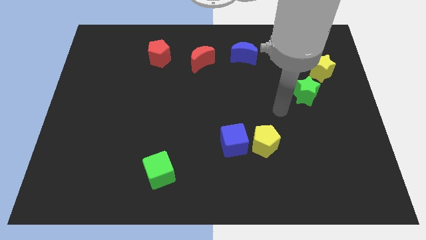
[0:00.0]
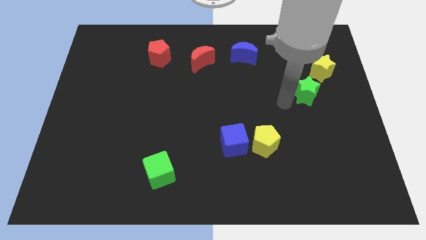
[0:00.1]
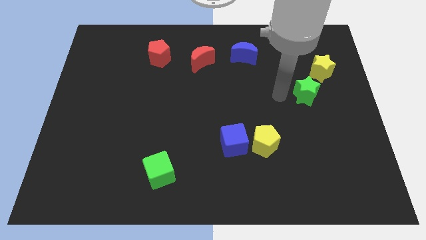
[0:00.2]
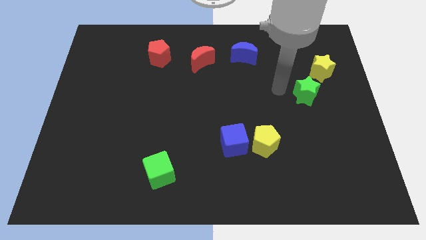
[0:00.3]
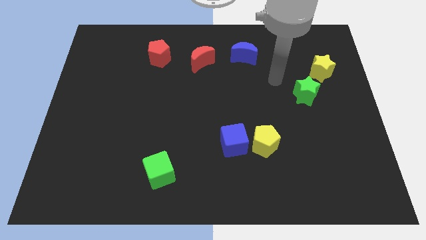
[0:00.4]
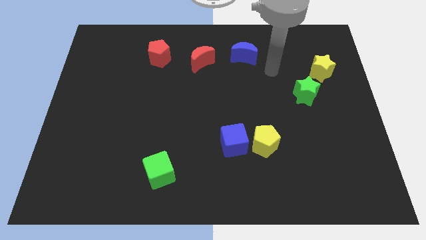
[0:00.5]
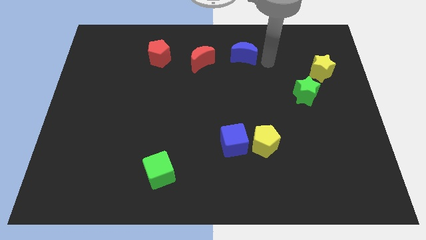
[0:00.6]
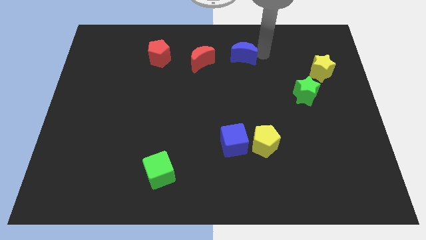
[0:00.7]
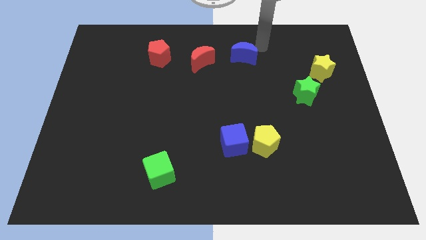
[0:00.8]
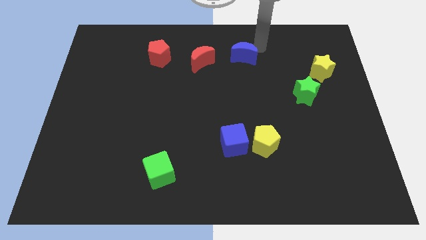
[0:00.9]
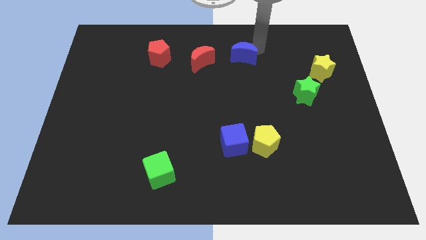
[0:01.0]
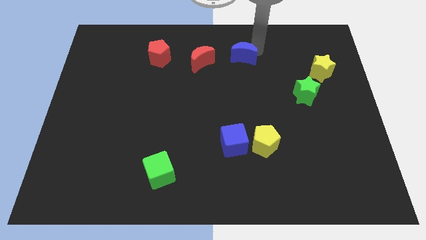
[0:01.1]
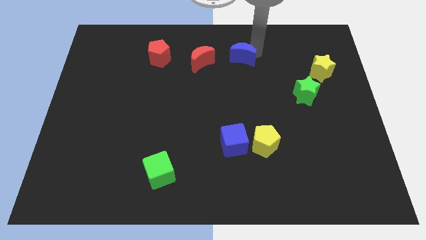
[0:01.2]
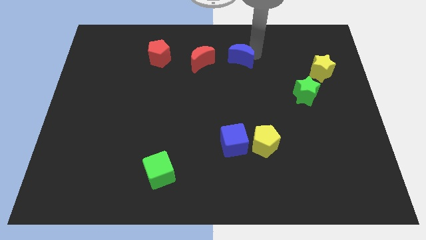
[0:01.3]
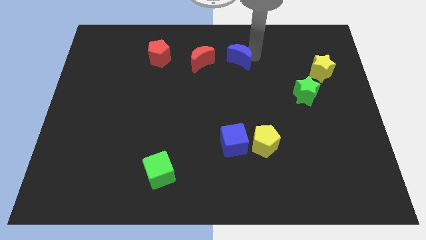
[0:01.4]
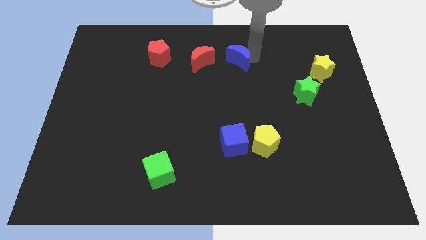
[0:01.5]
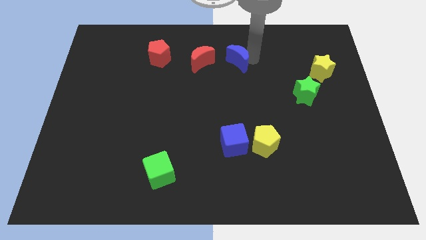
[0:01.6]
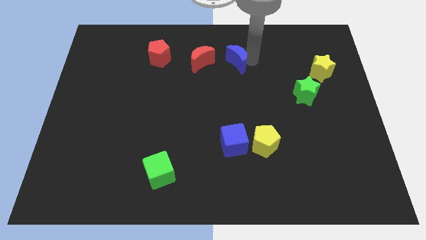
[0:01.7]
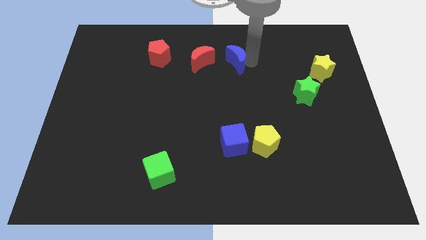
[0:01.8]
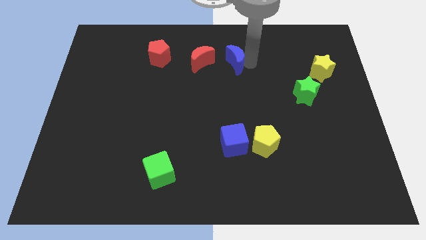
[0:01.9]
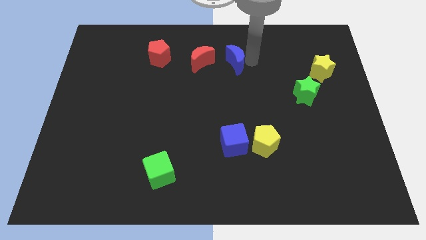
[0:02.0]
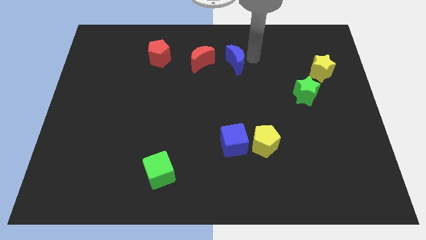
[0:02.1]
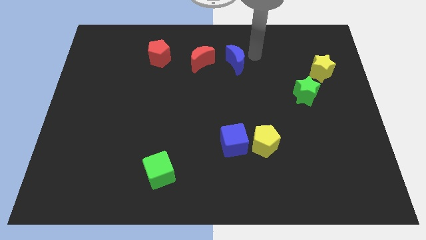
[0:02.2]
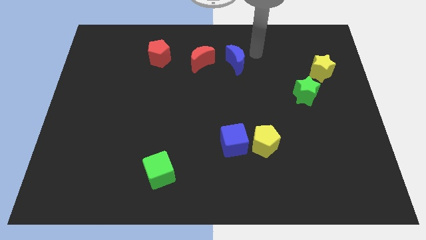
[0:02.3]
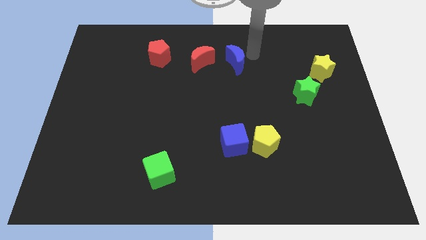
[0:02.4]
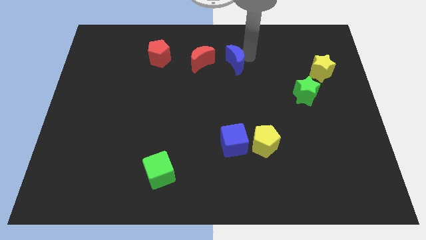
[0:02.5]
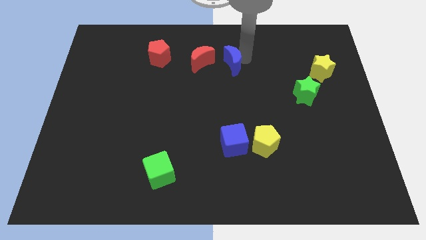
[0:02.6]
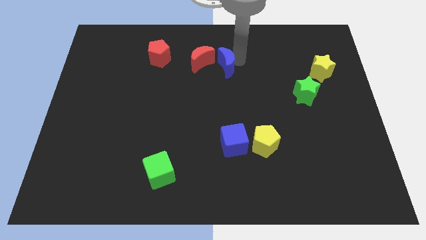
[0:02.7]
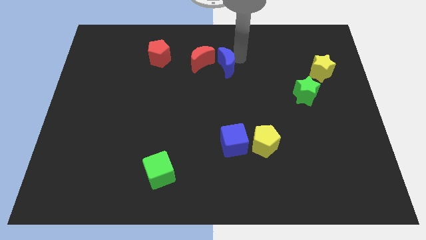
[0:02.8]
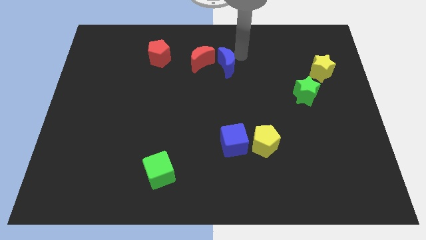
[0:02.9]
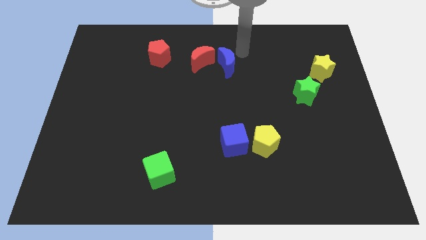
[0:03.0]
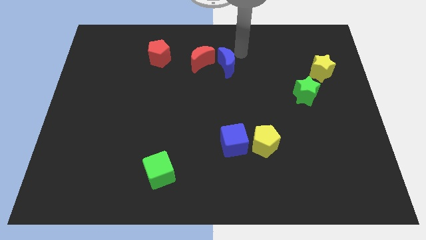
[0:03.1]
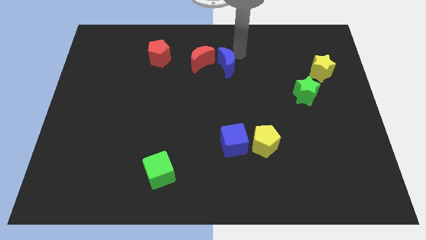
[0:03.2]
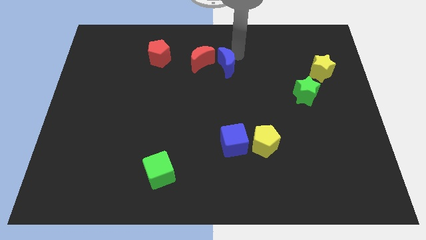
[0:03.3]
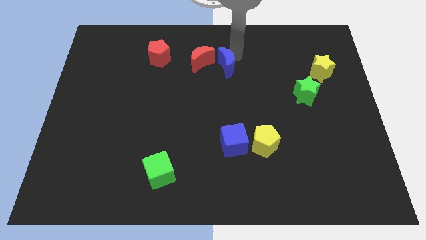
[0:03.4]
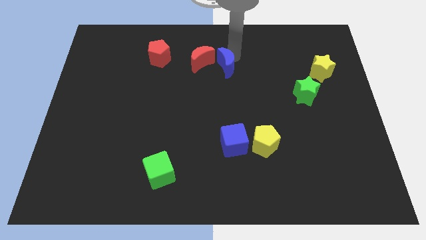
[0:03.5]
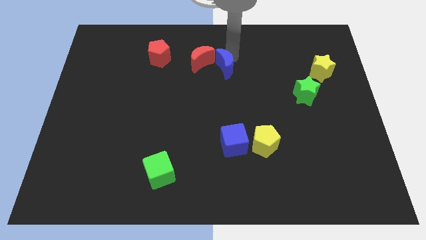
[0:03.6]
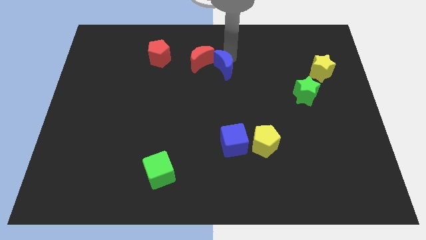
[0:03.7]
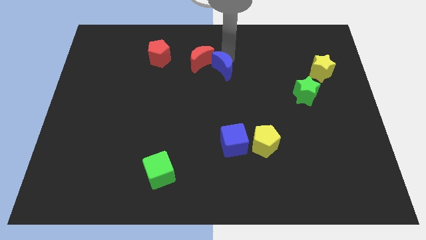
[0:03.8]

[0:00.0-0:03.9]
slightly slide the blue moon diagonally down and to the left

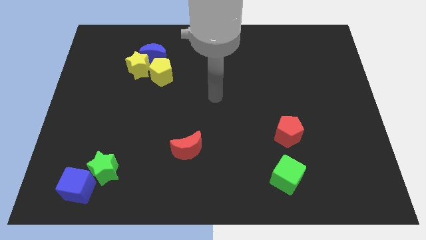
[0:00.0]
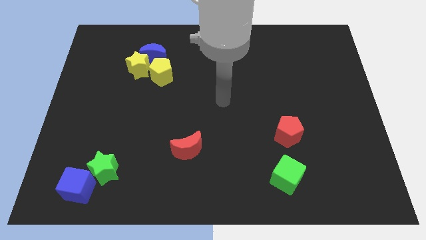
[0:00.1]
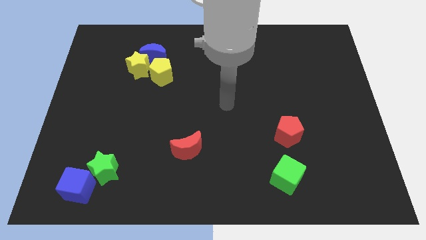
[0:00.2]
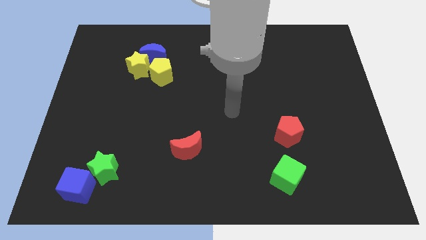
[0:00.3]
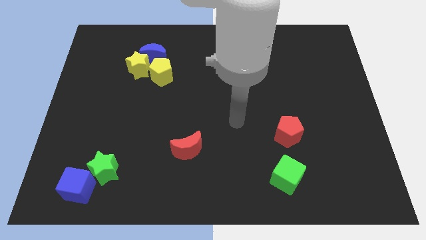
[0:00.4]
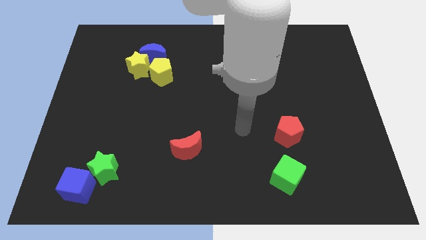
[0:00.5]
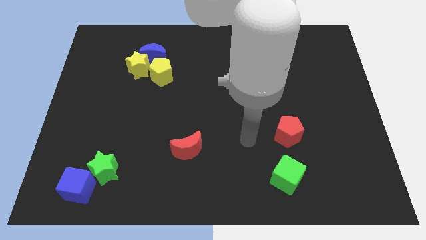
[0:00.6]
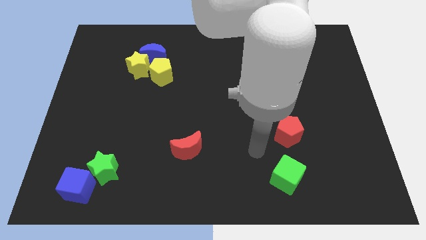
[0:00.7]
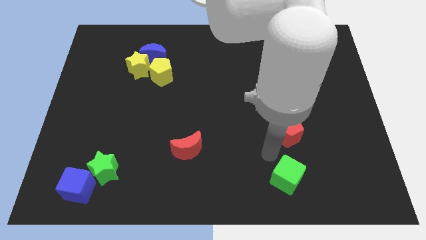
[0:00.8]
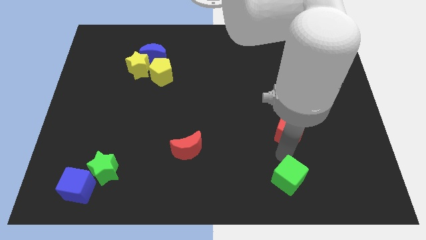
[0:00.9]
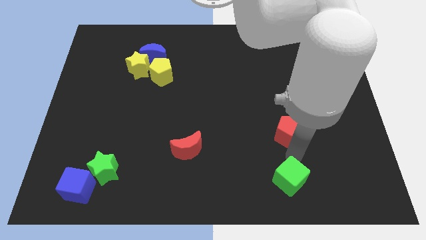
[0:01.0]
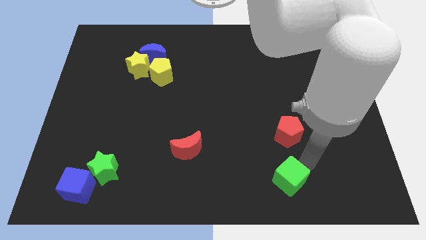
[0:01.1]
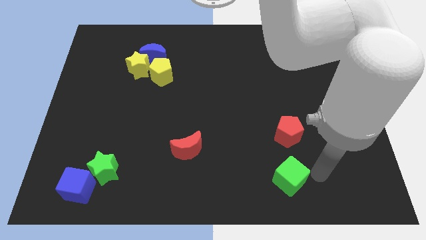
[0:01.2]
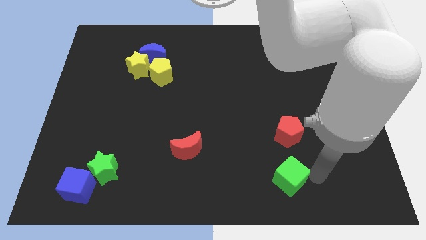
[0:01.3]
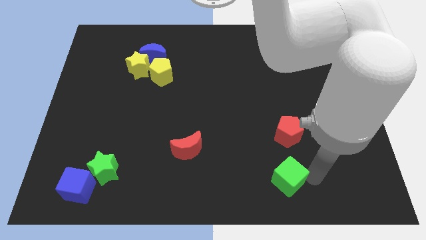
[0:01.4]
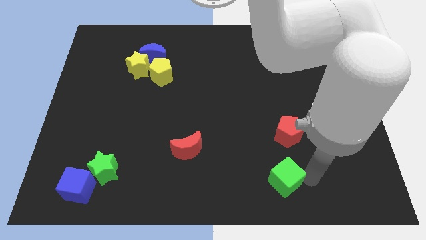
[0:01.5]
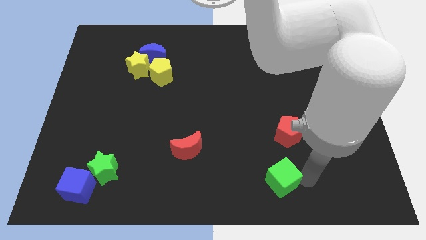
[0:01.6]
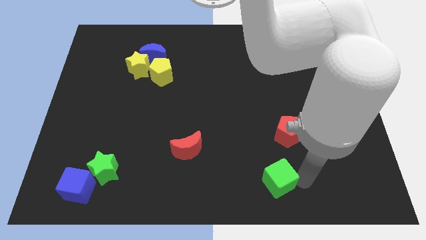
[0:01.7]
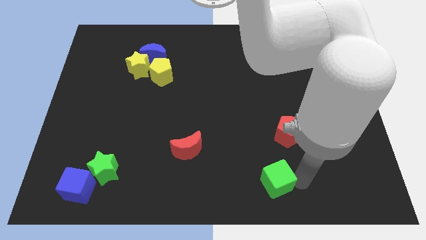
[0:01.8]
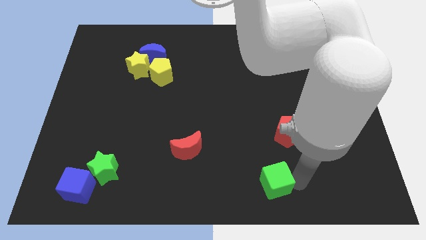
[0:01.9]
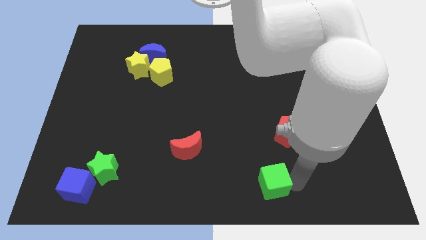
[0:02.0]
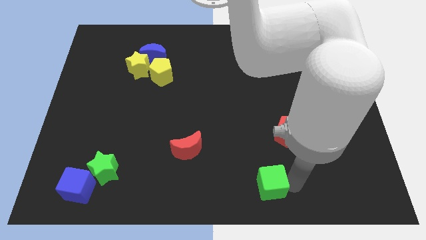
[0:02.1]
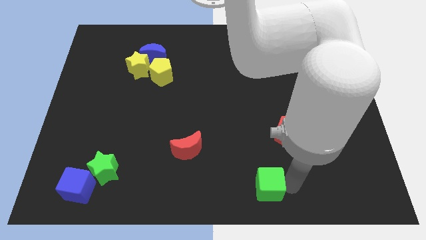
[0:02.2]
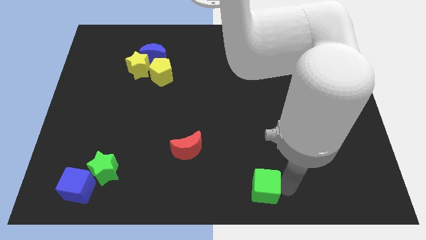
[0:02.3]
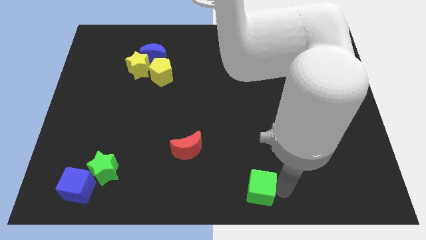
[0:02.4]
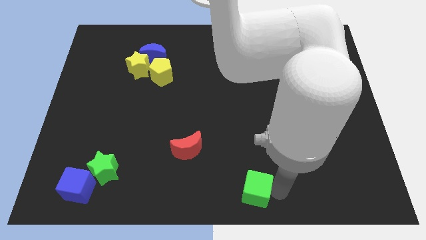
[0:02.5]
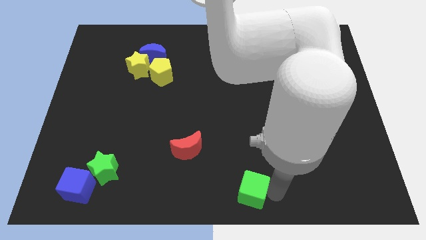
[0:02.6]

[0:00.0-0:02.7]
slide the green cube a bit to the left

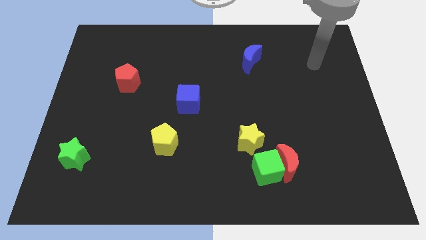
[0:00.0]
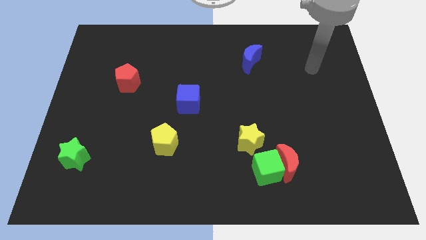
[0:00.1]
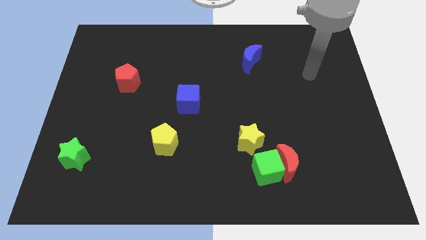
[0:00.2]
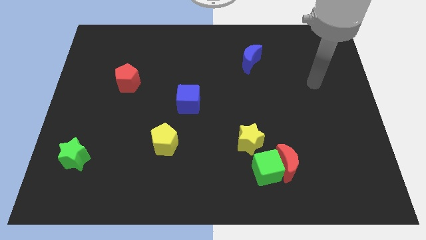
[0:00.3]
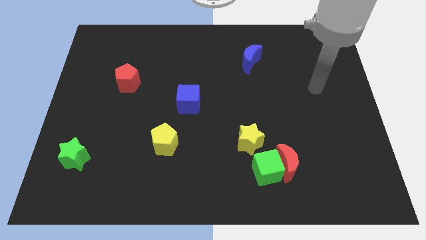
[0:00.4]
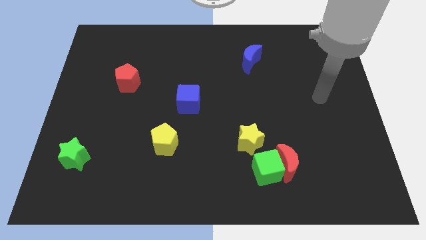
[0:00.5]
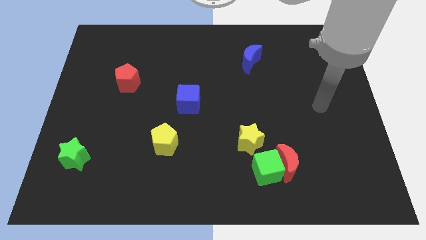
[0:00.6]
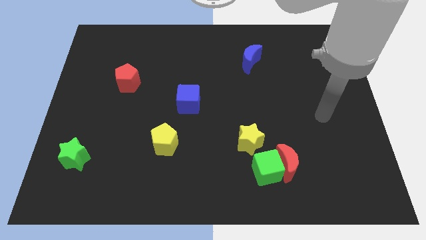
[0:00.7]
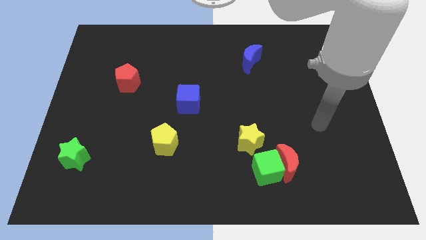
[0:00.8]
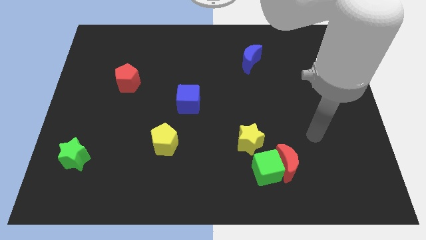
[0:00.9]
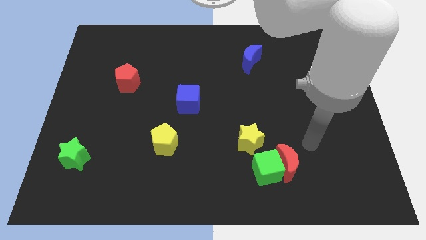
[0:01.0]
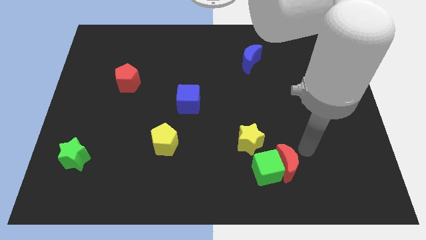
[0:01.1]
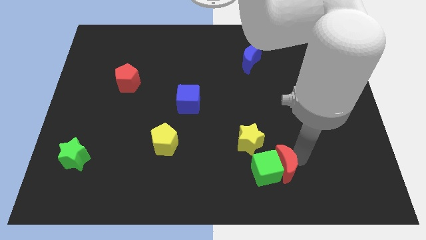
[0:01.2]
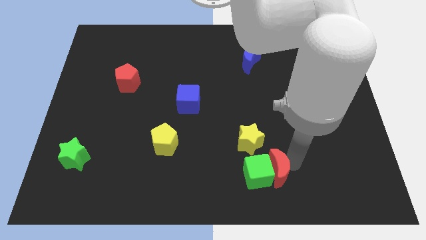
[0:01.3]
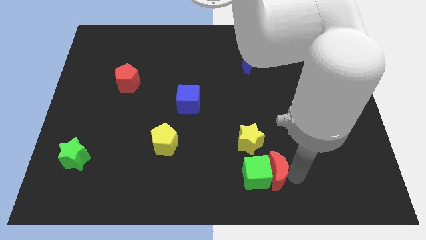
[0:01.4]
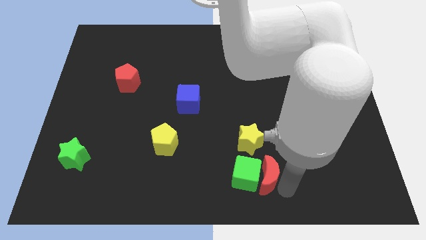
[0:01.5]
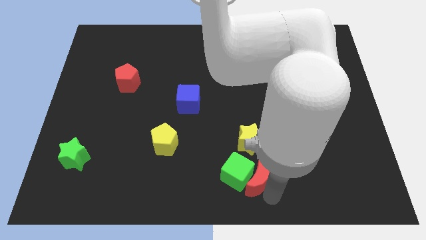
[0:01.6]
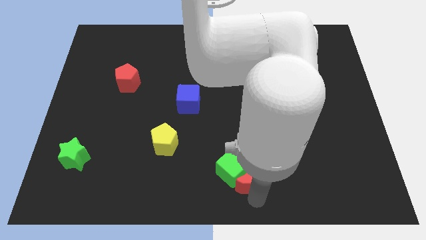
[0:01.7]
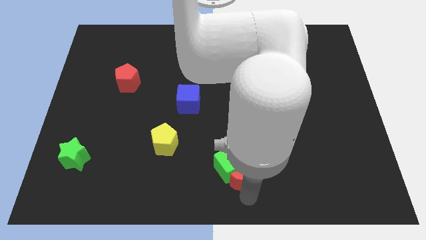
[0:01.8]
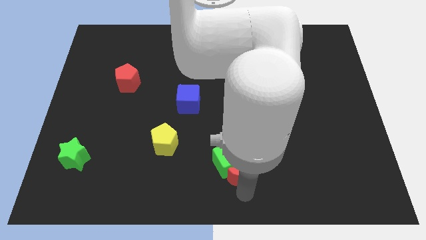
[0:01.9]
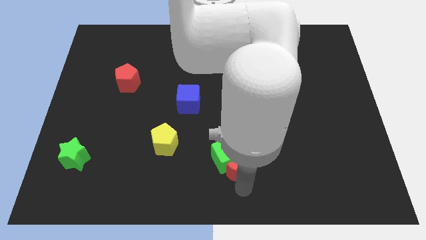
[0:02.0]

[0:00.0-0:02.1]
slightly slide the green cube up and left
